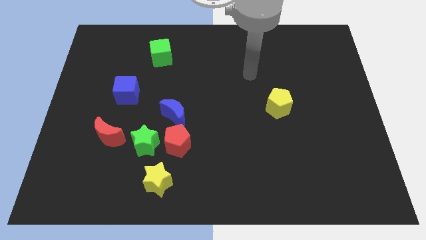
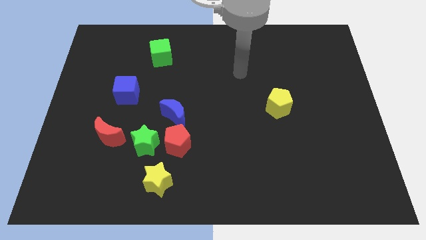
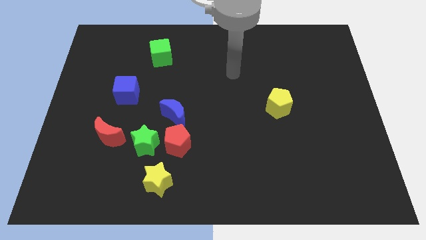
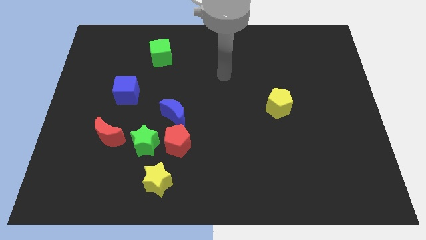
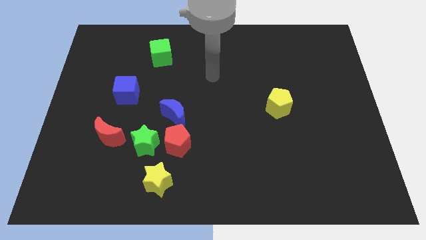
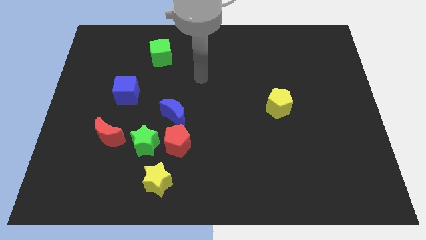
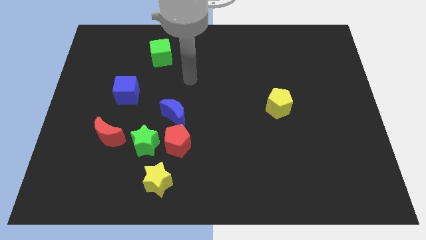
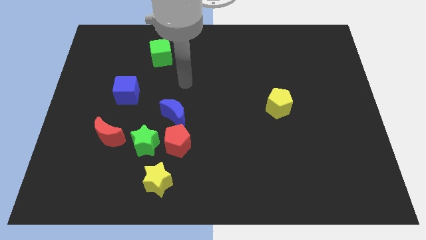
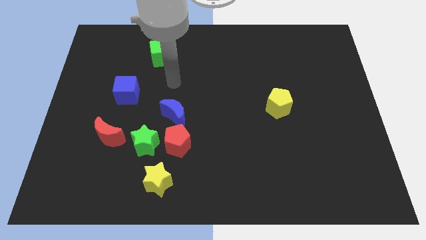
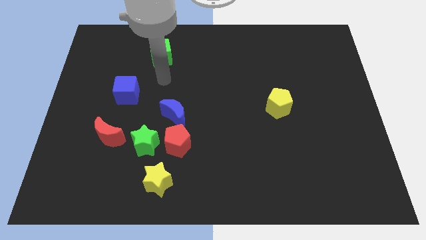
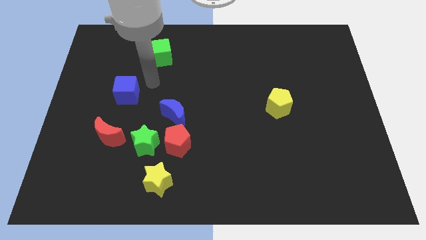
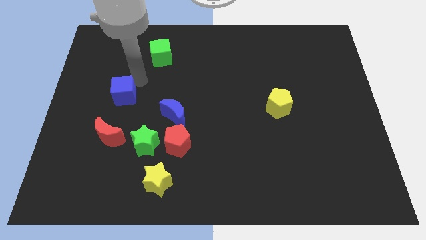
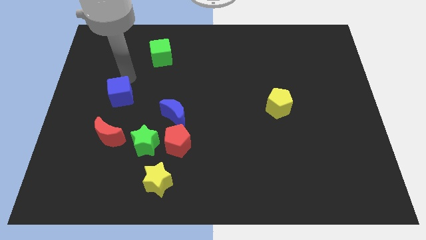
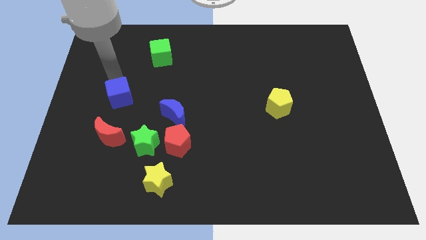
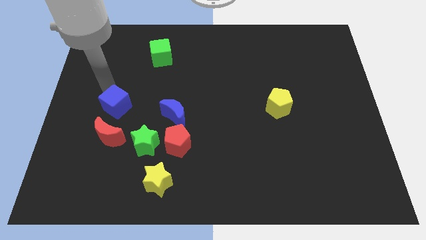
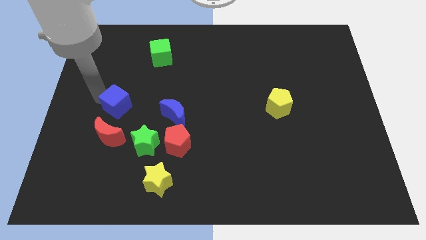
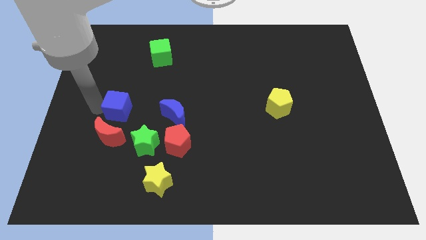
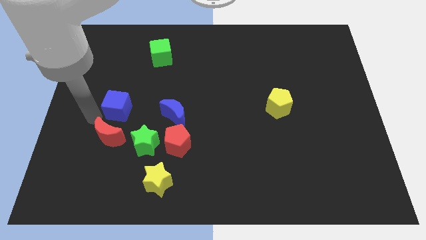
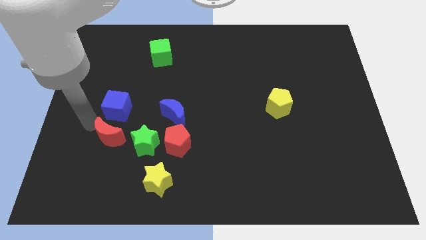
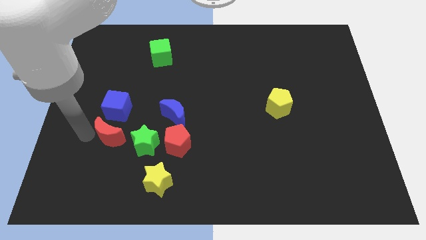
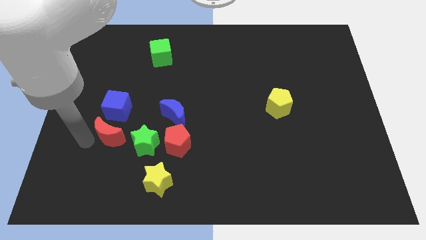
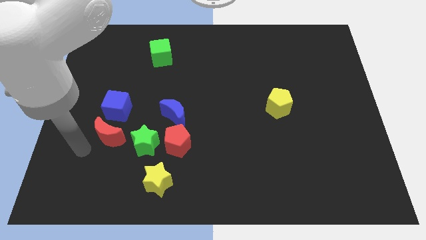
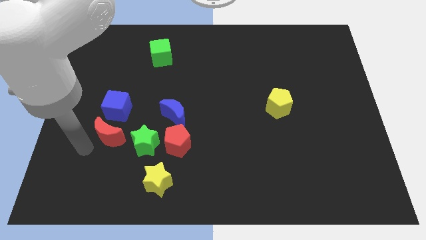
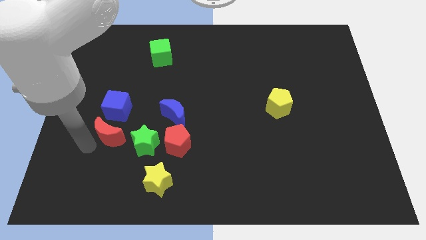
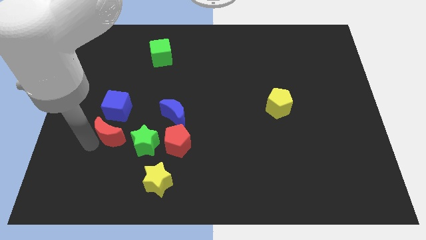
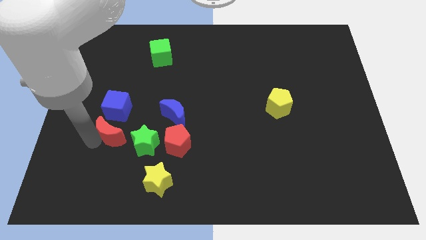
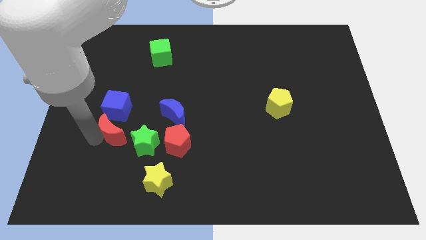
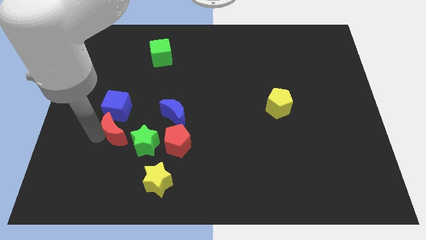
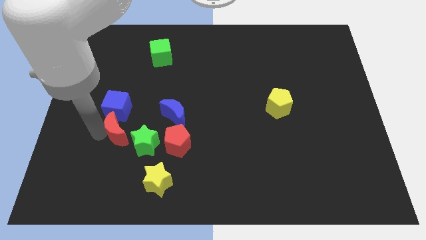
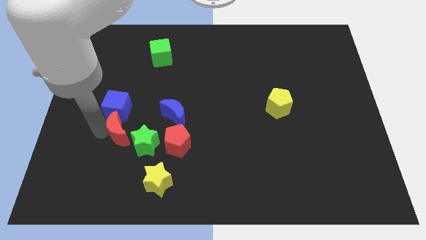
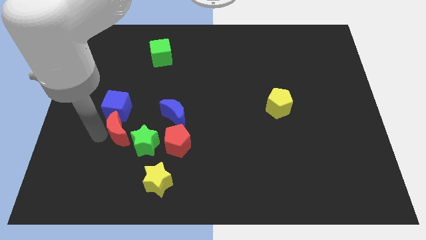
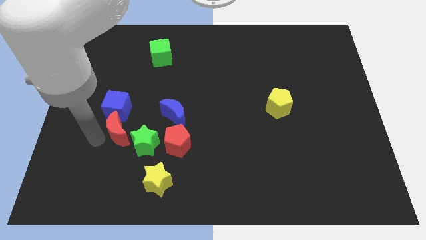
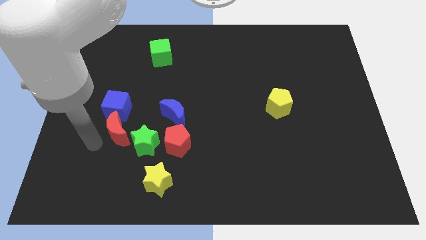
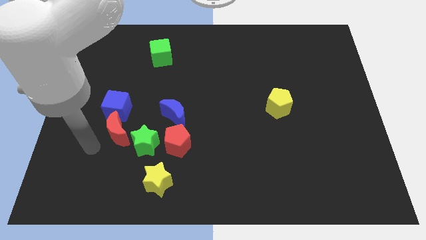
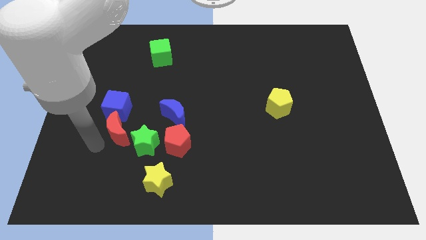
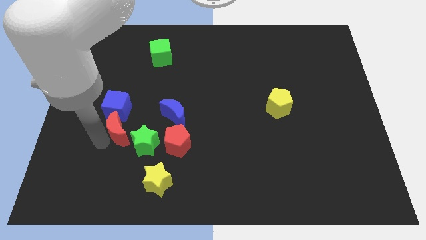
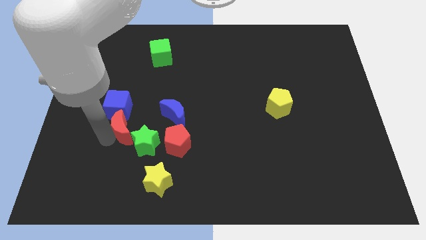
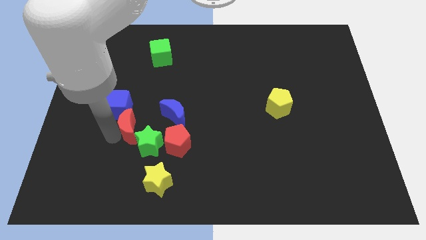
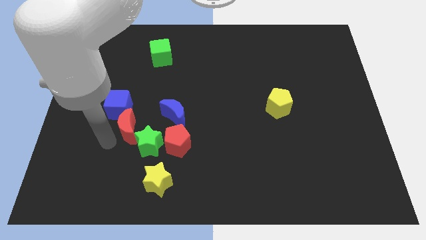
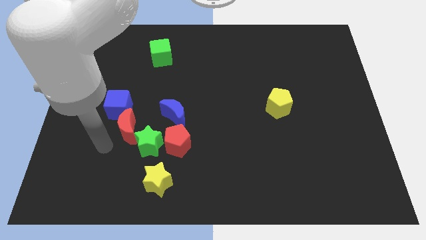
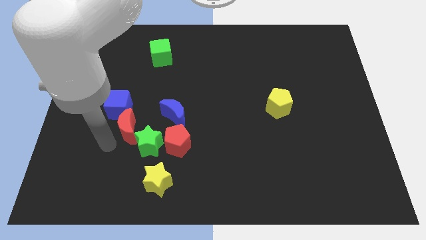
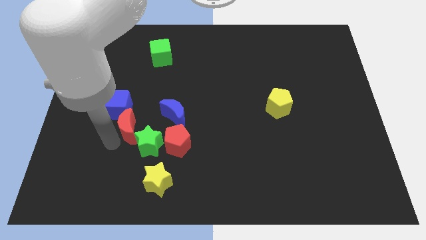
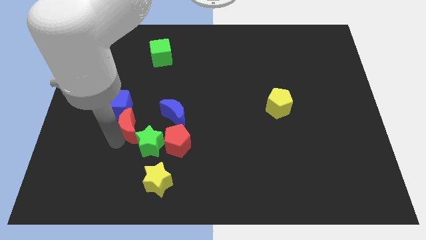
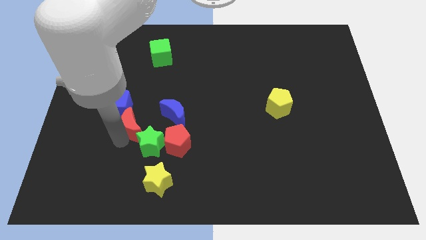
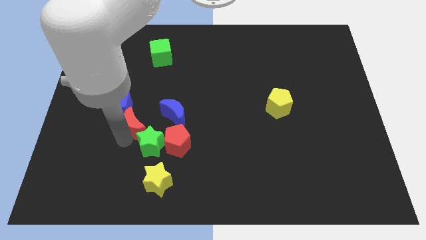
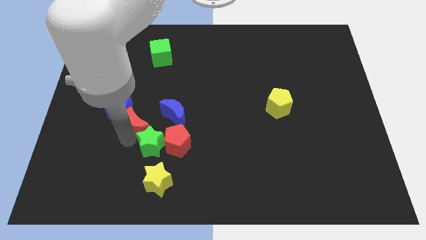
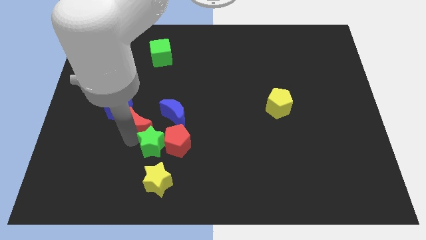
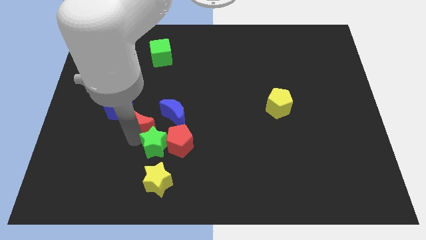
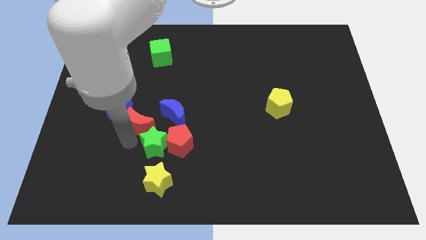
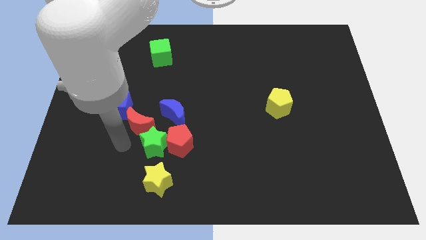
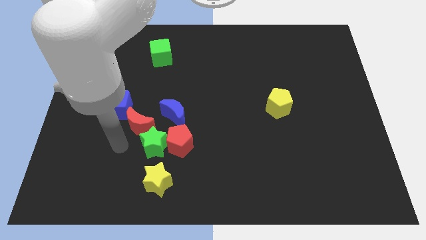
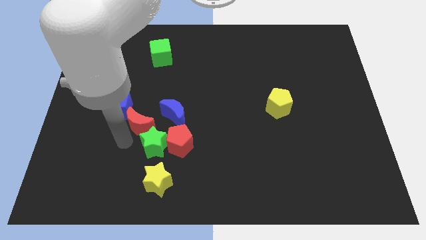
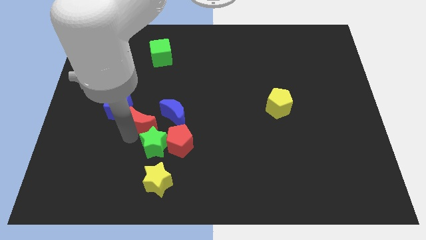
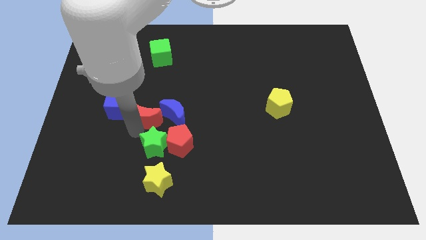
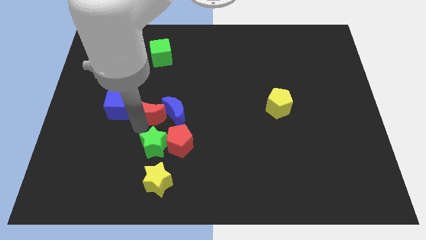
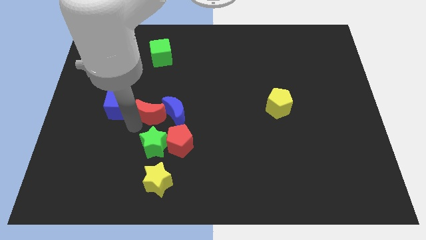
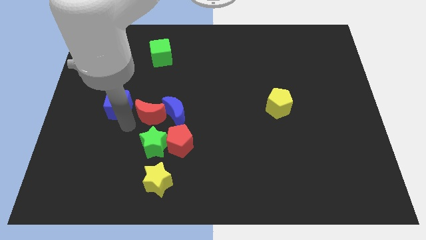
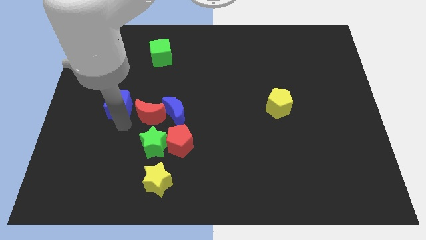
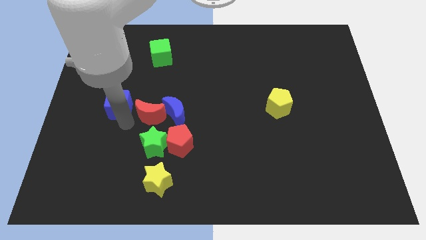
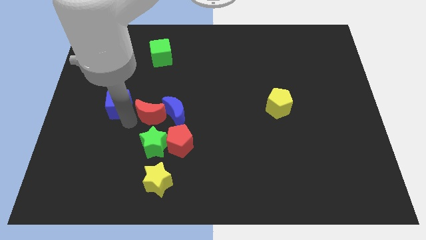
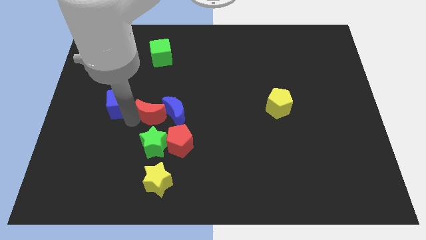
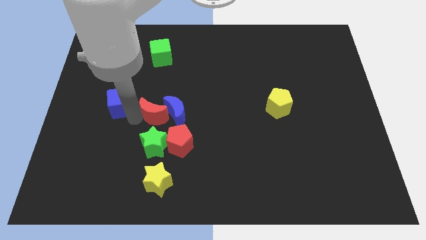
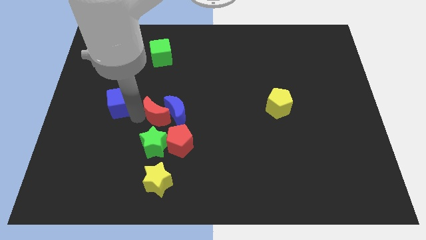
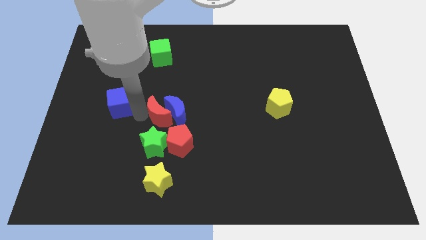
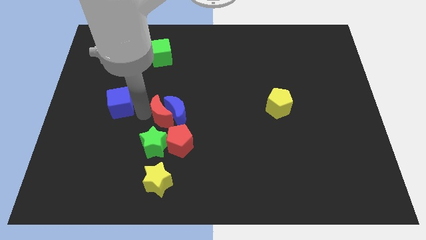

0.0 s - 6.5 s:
put the red moon to the top of the red pentagon

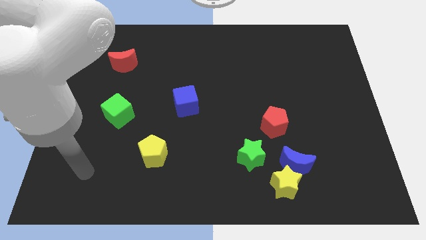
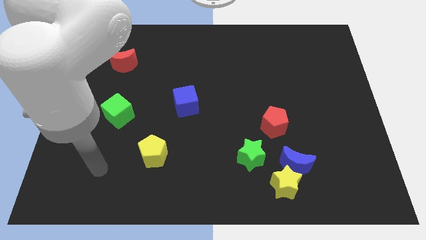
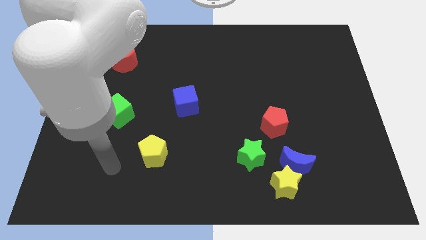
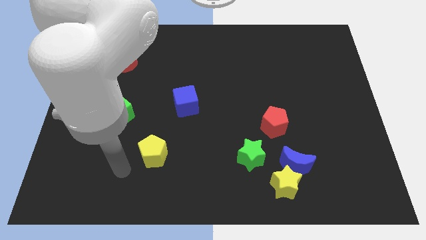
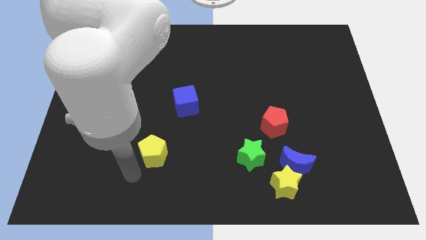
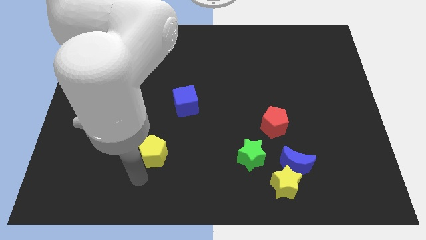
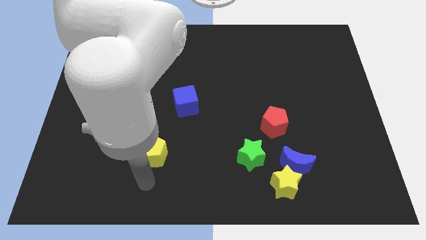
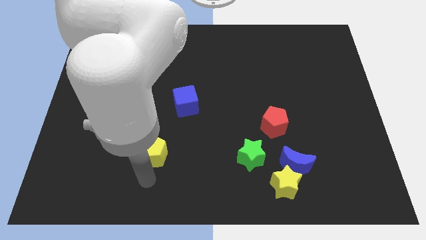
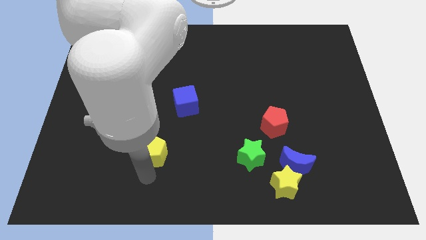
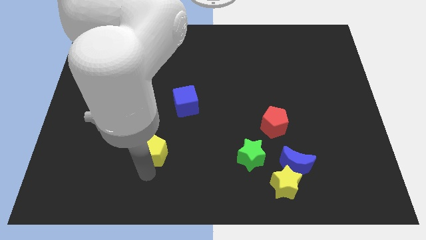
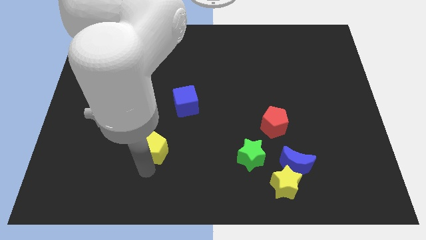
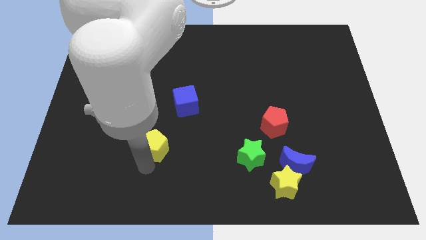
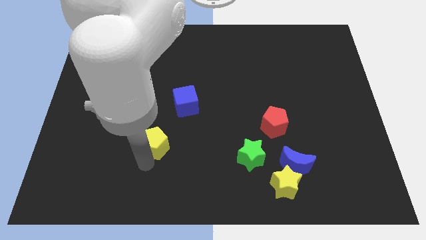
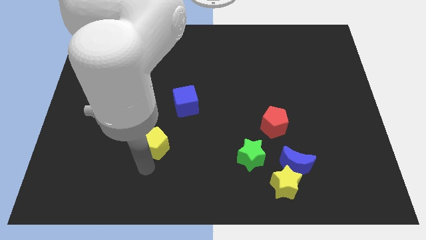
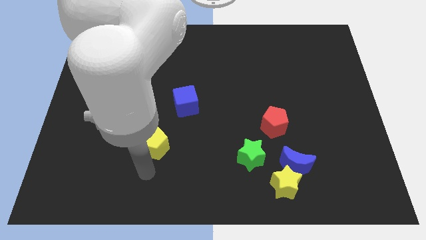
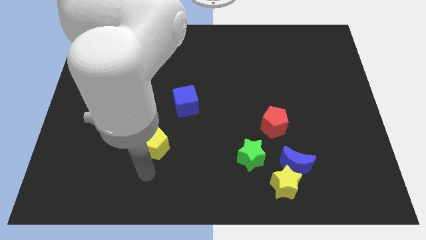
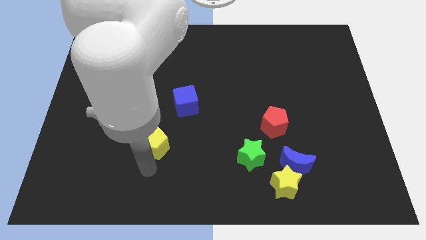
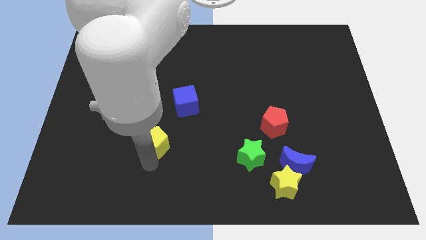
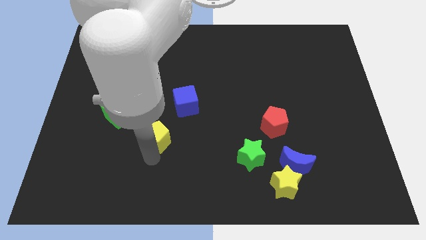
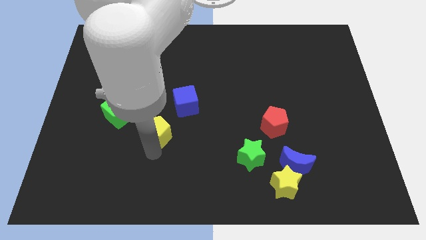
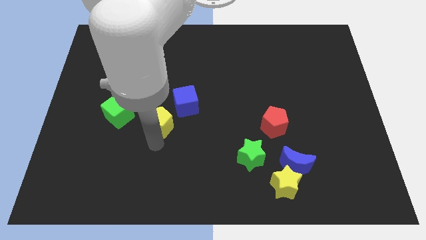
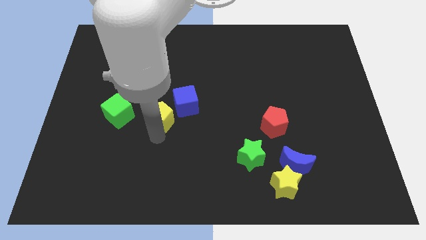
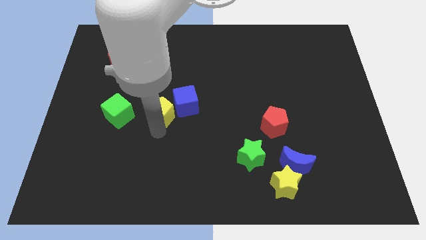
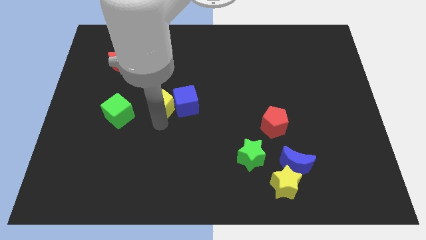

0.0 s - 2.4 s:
slide the yellow pentagon diagonally up and to the left of the blue cube
